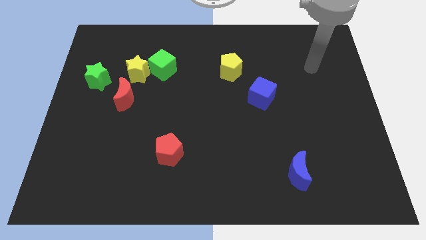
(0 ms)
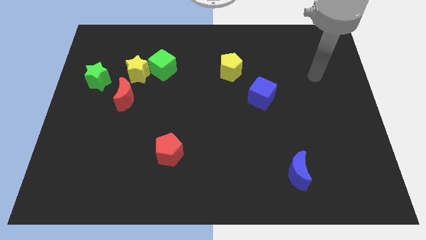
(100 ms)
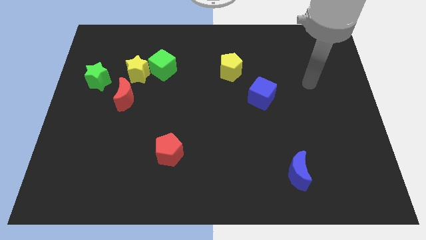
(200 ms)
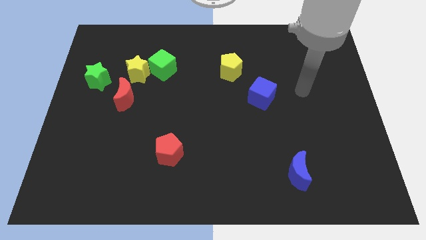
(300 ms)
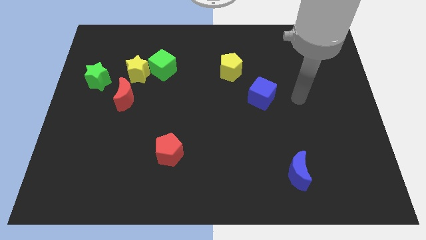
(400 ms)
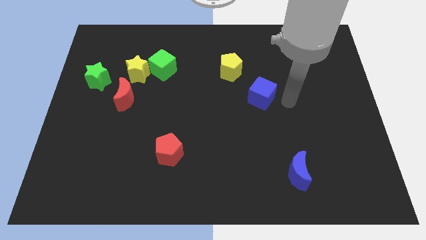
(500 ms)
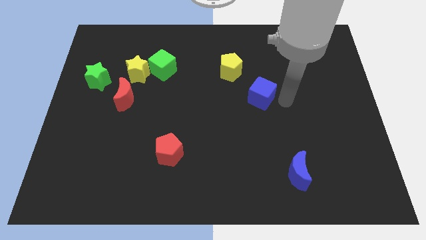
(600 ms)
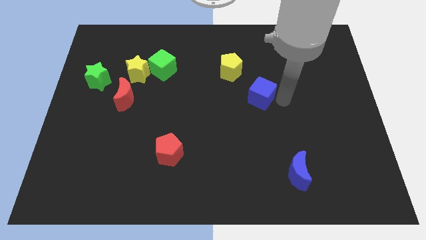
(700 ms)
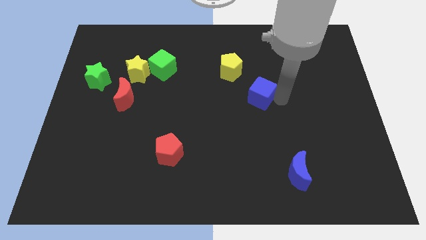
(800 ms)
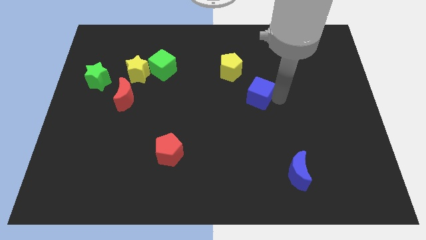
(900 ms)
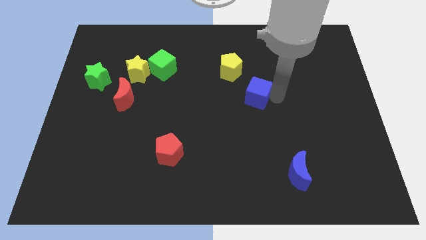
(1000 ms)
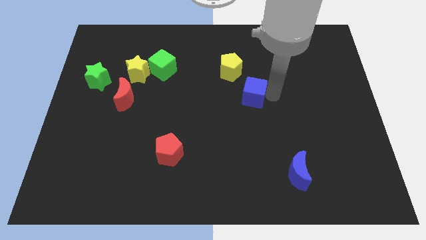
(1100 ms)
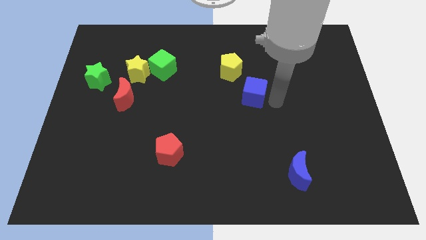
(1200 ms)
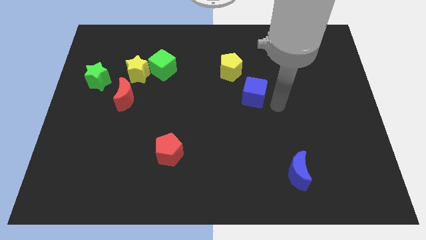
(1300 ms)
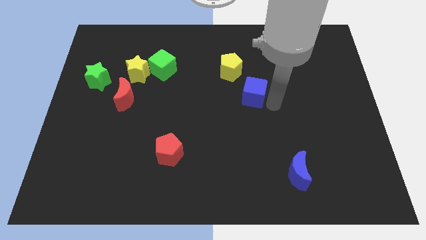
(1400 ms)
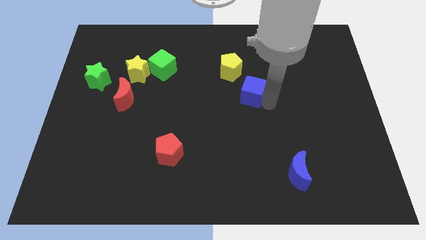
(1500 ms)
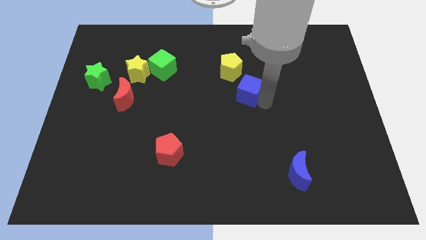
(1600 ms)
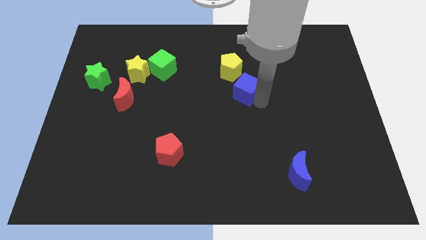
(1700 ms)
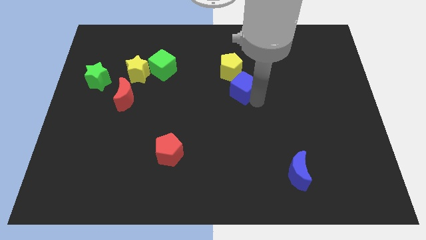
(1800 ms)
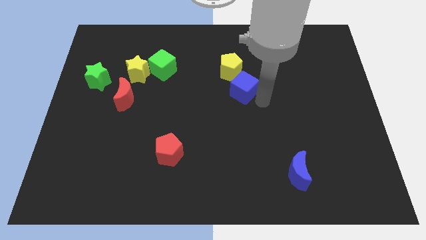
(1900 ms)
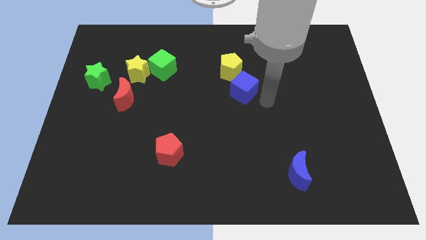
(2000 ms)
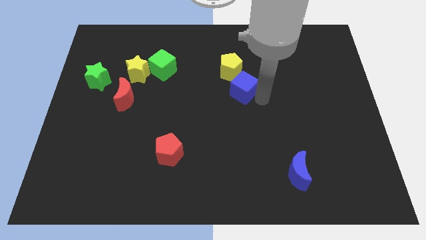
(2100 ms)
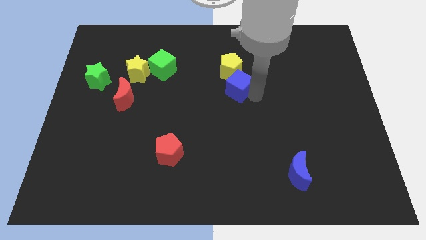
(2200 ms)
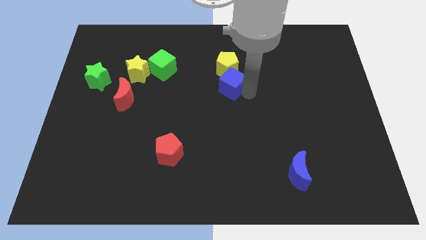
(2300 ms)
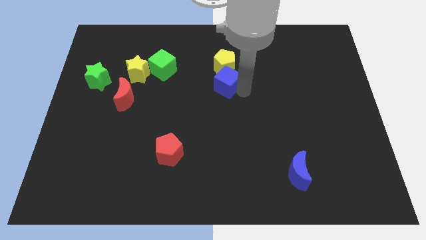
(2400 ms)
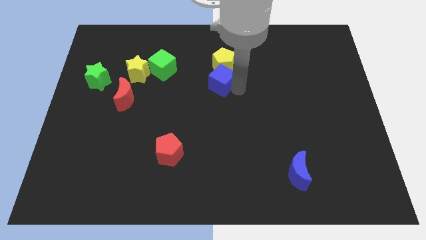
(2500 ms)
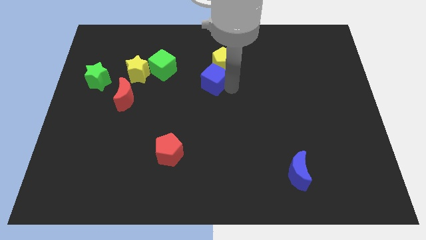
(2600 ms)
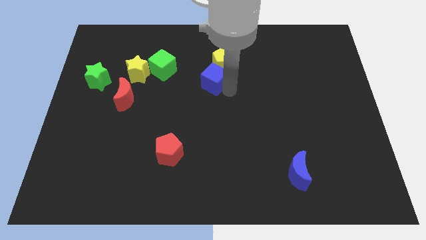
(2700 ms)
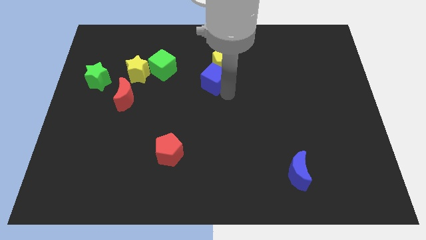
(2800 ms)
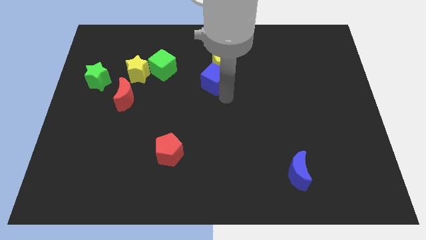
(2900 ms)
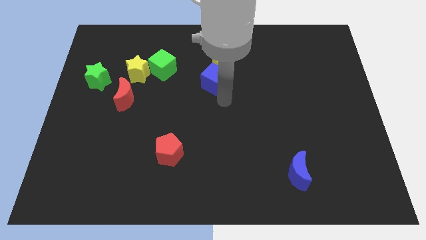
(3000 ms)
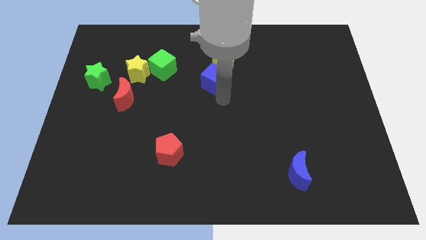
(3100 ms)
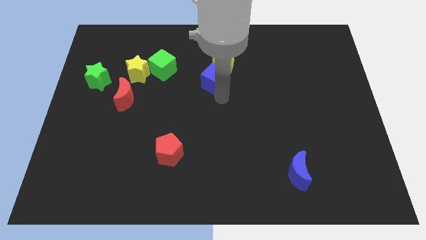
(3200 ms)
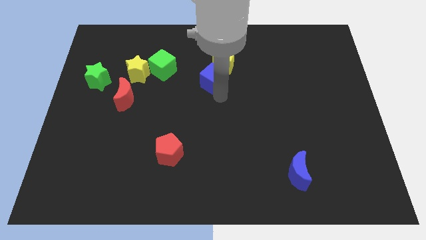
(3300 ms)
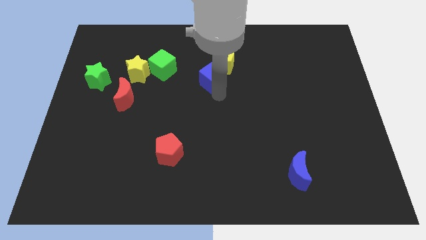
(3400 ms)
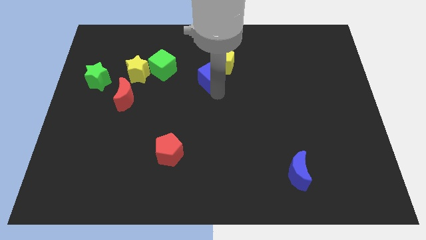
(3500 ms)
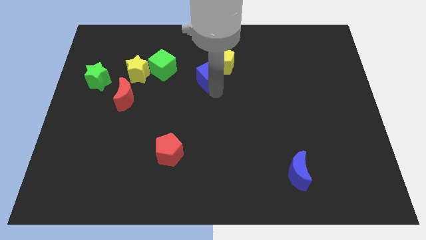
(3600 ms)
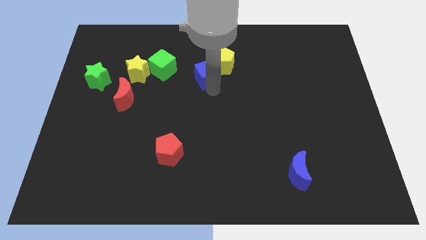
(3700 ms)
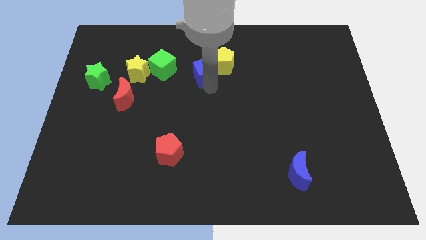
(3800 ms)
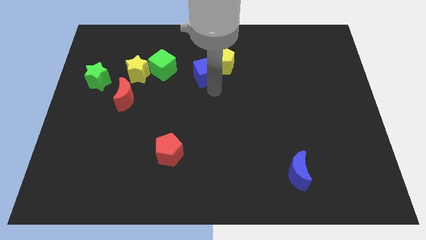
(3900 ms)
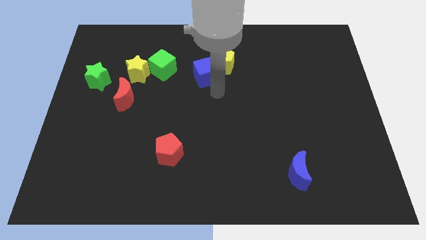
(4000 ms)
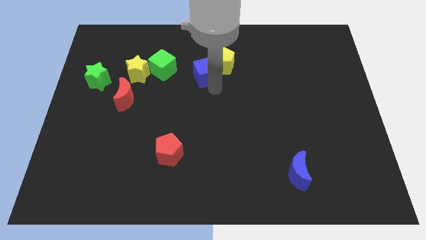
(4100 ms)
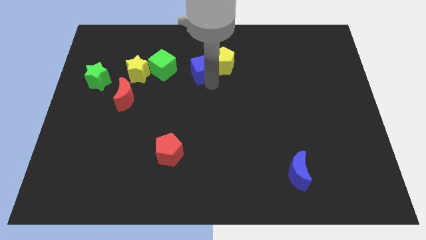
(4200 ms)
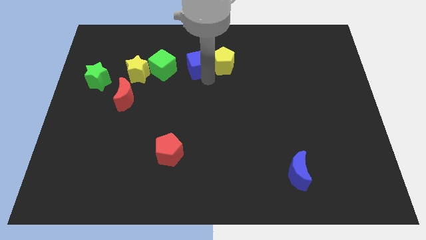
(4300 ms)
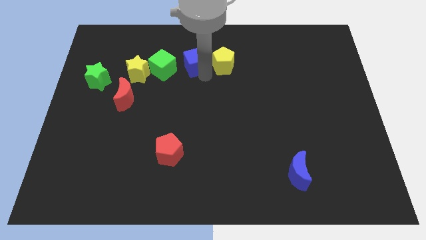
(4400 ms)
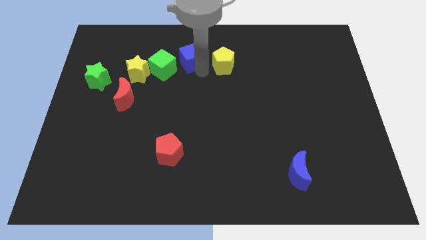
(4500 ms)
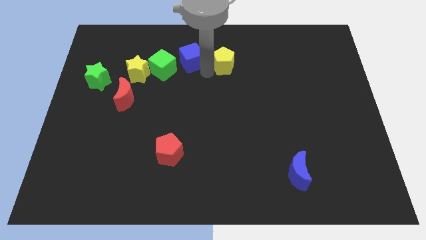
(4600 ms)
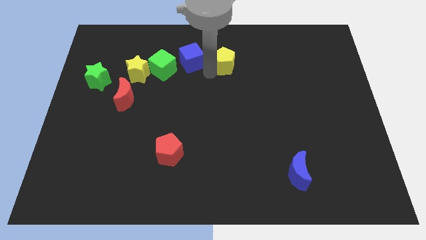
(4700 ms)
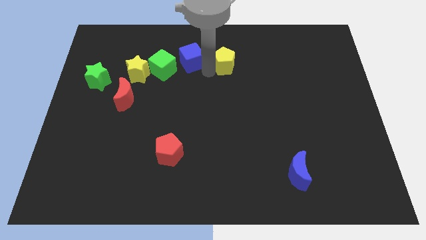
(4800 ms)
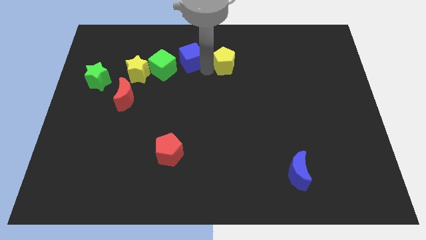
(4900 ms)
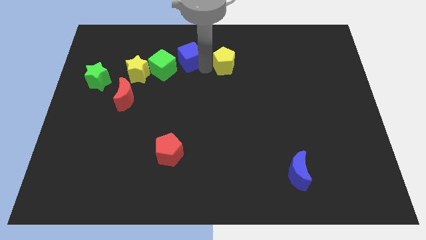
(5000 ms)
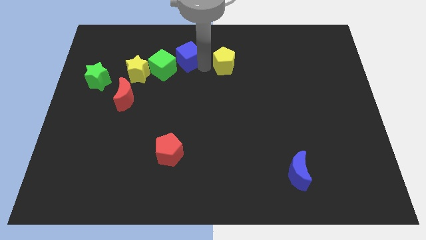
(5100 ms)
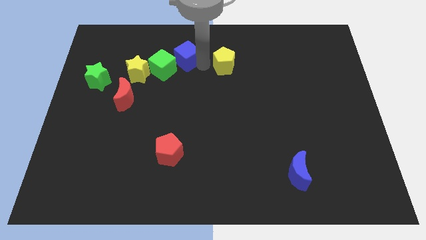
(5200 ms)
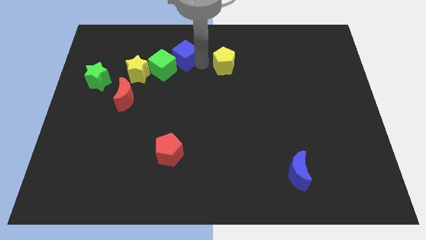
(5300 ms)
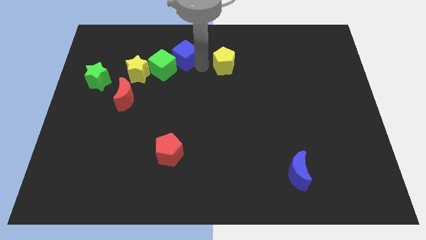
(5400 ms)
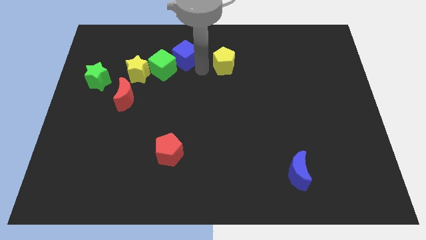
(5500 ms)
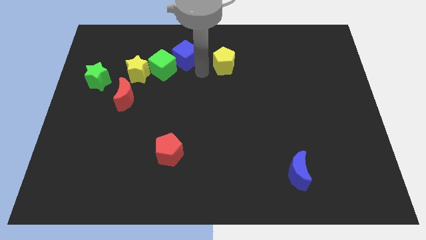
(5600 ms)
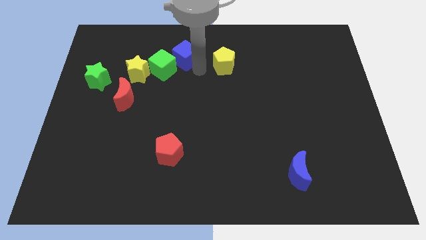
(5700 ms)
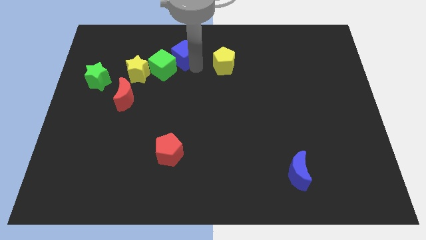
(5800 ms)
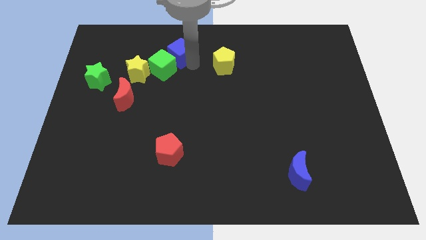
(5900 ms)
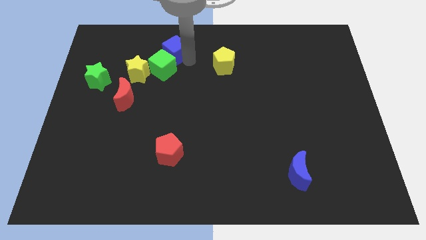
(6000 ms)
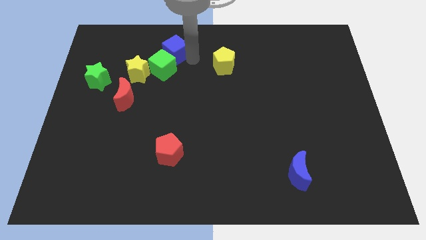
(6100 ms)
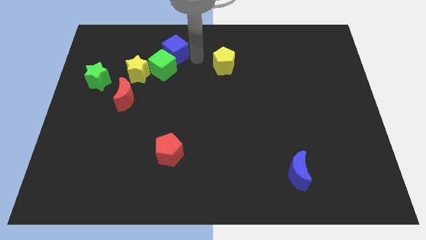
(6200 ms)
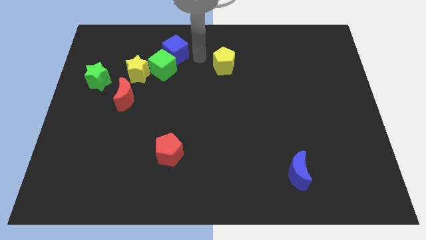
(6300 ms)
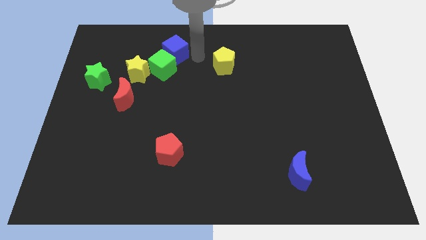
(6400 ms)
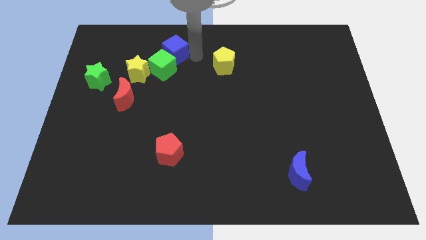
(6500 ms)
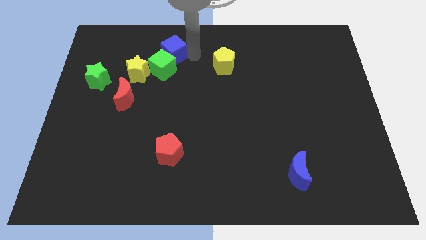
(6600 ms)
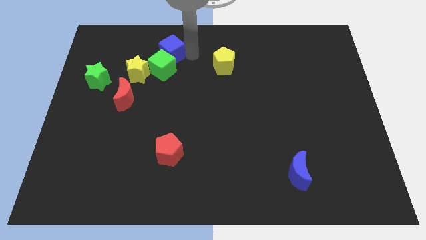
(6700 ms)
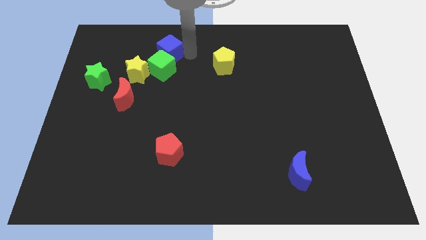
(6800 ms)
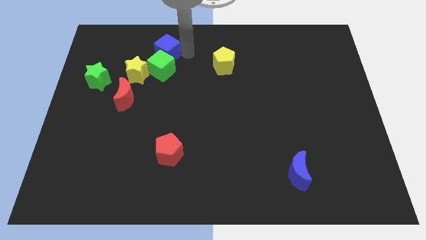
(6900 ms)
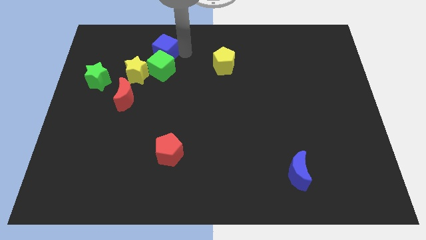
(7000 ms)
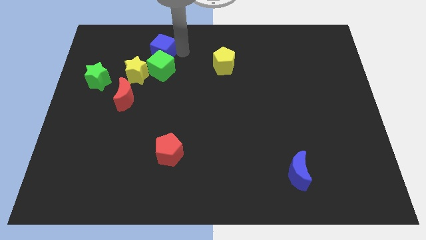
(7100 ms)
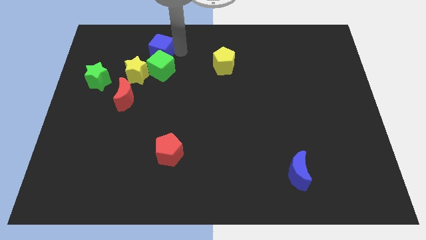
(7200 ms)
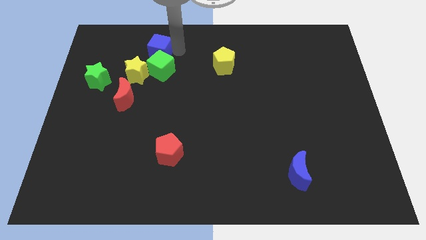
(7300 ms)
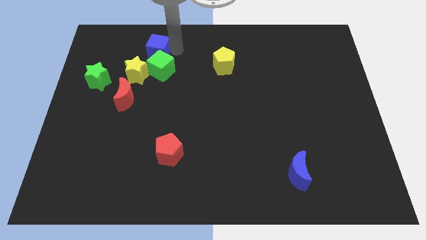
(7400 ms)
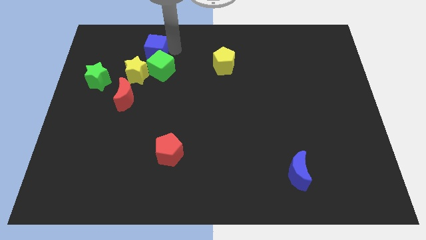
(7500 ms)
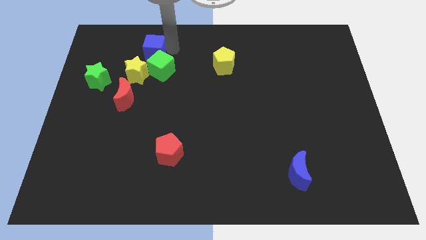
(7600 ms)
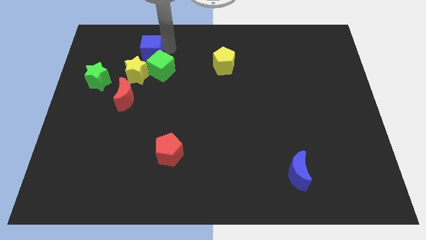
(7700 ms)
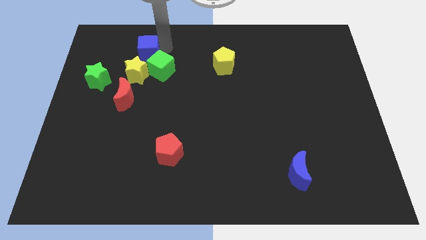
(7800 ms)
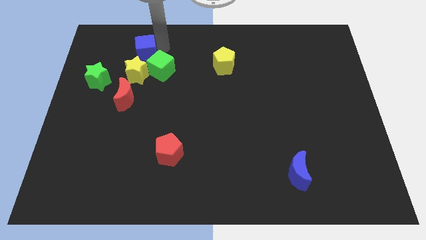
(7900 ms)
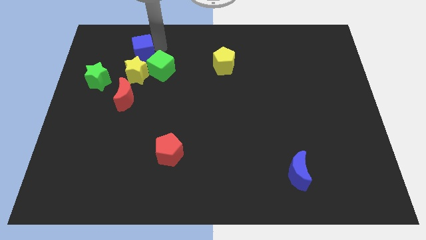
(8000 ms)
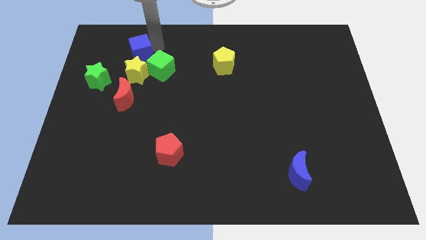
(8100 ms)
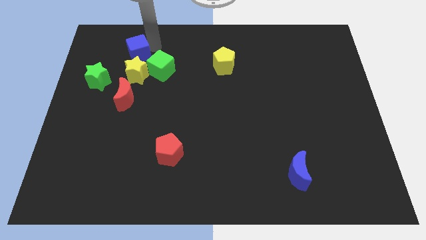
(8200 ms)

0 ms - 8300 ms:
slide the blue cube to the top left side of the yellow star
